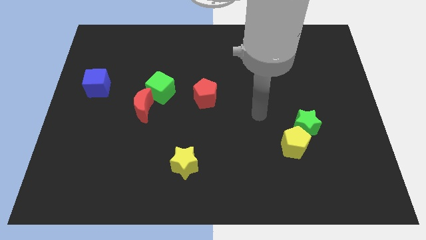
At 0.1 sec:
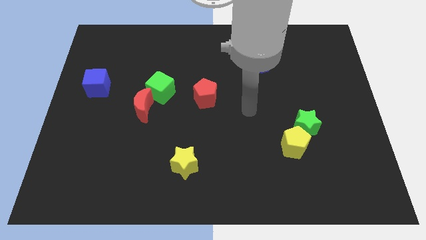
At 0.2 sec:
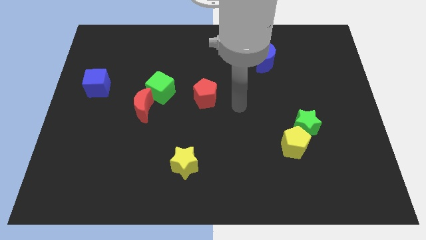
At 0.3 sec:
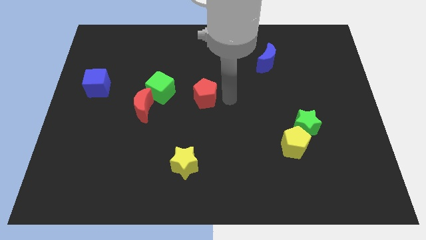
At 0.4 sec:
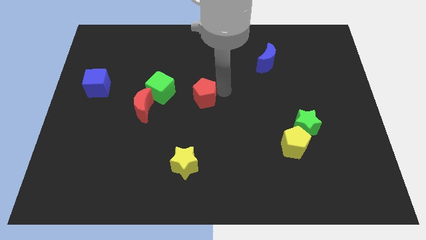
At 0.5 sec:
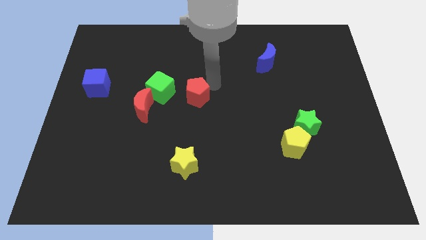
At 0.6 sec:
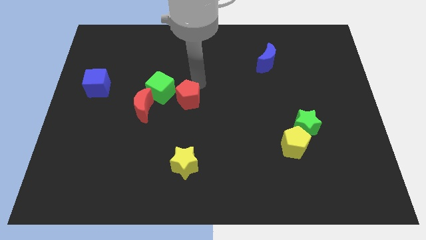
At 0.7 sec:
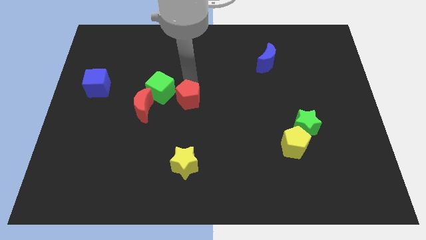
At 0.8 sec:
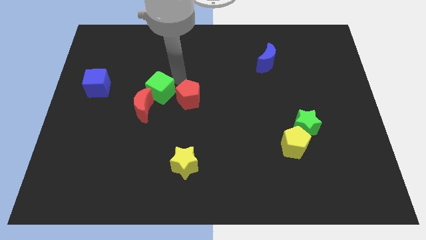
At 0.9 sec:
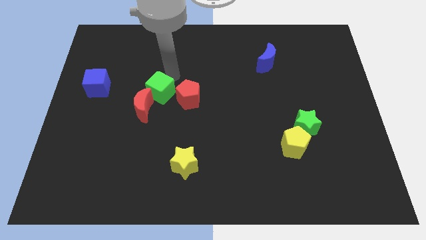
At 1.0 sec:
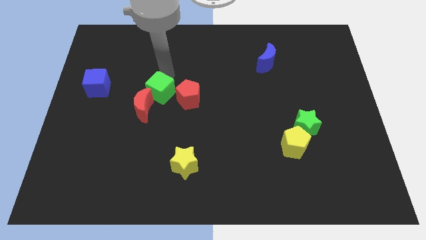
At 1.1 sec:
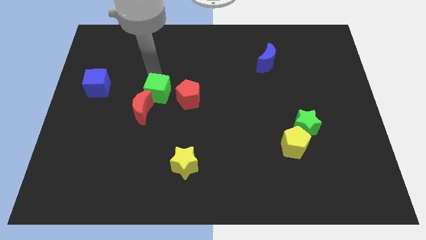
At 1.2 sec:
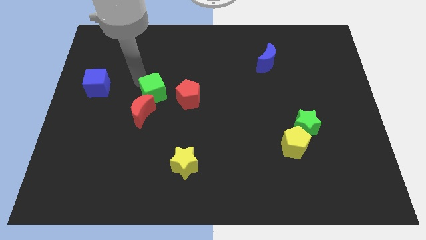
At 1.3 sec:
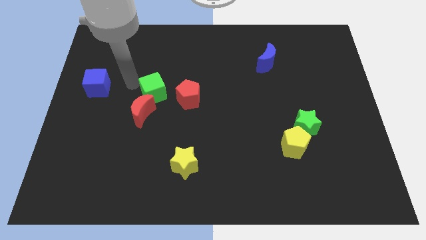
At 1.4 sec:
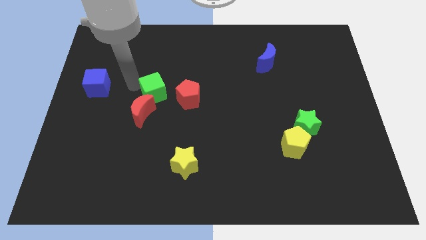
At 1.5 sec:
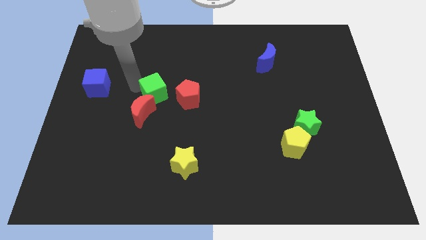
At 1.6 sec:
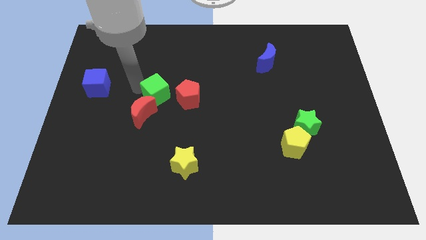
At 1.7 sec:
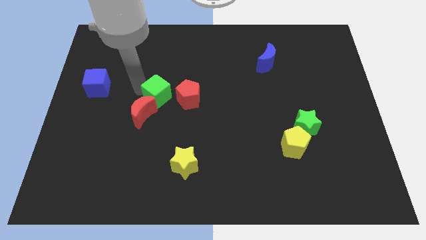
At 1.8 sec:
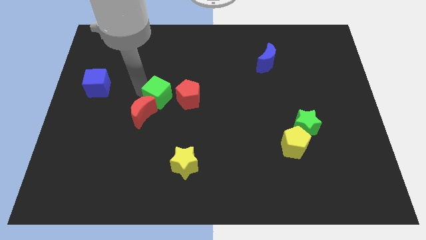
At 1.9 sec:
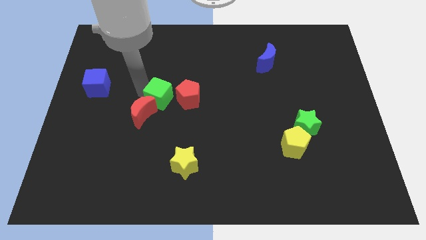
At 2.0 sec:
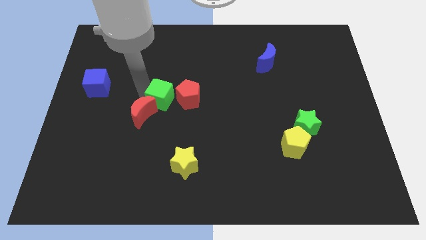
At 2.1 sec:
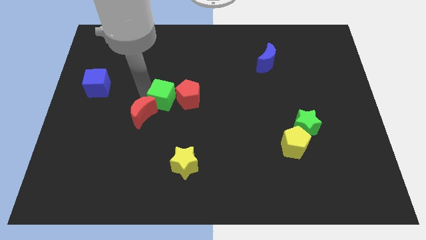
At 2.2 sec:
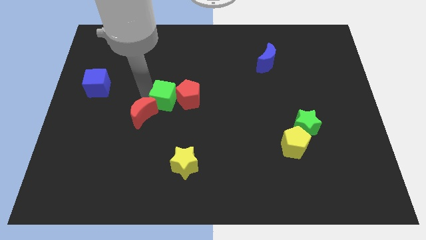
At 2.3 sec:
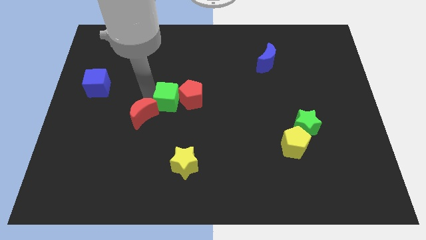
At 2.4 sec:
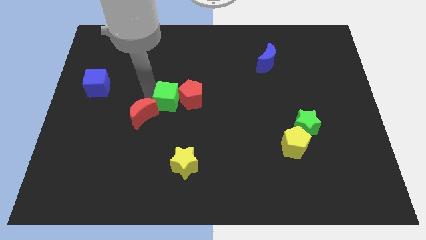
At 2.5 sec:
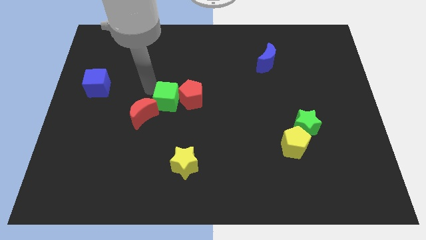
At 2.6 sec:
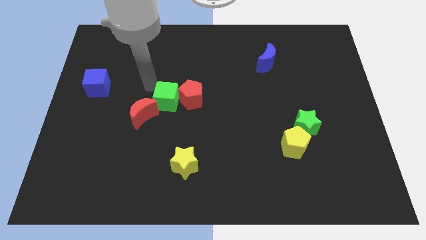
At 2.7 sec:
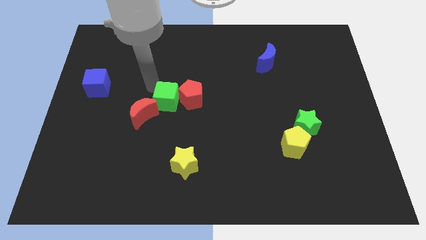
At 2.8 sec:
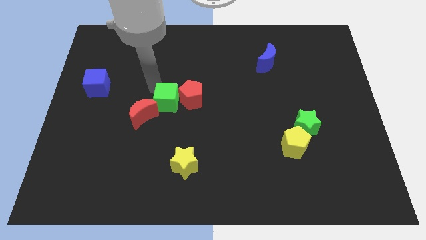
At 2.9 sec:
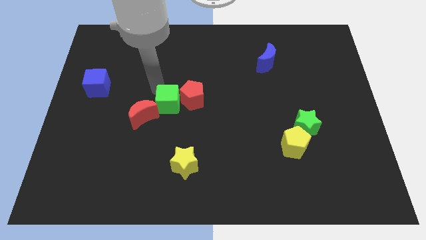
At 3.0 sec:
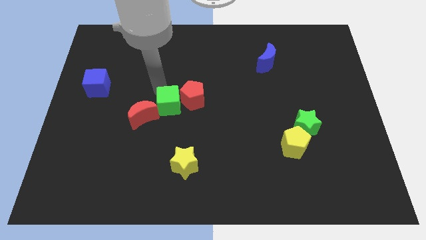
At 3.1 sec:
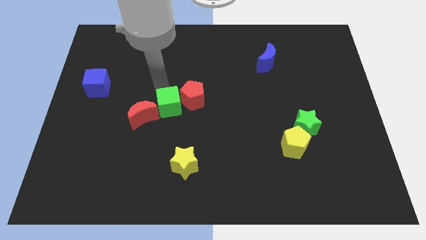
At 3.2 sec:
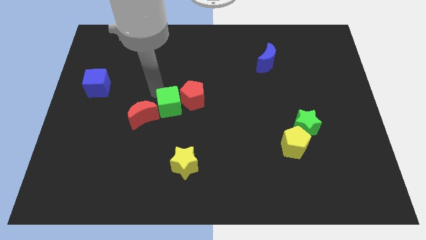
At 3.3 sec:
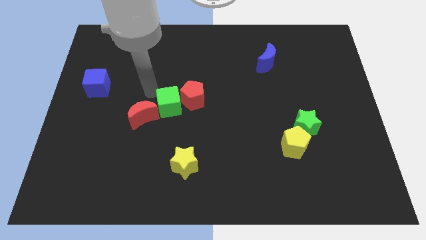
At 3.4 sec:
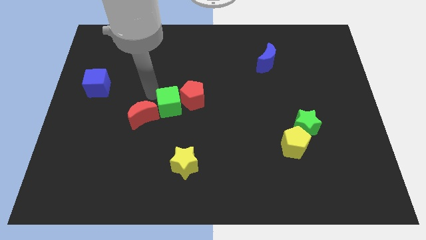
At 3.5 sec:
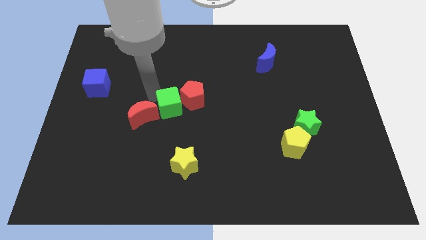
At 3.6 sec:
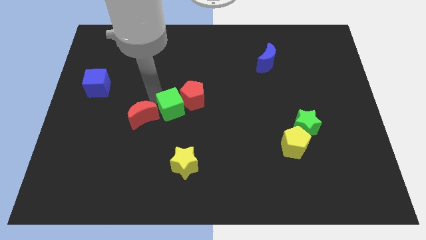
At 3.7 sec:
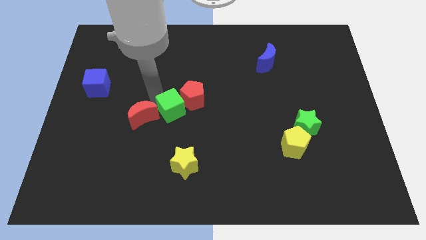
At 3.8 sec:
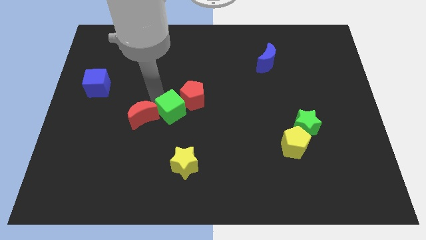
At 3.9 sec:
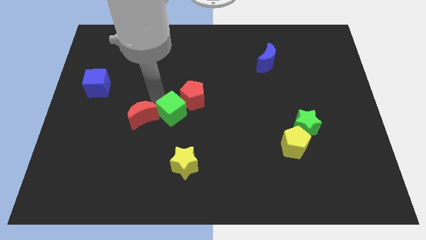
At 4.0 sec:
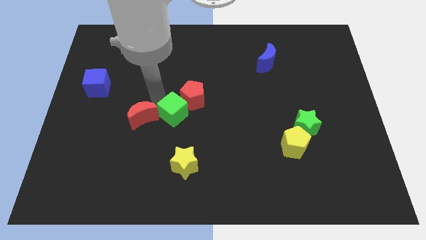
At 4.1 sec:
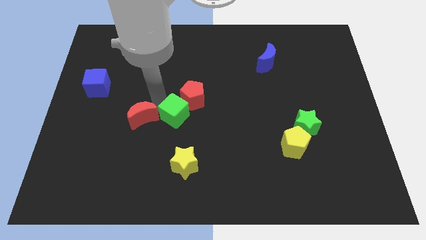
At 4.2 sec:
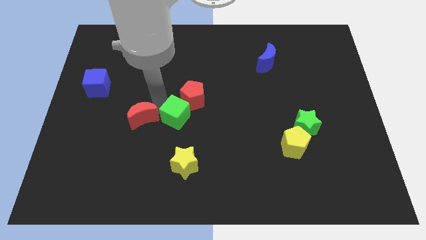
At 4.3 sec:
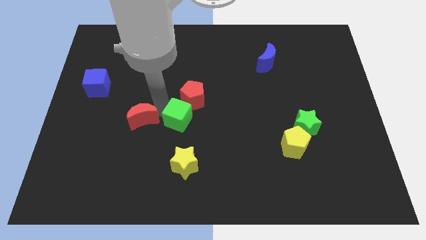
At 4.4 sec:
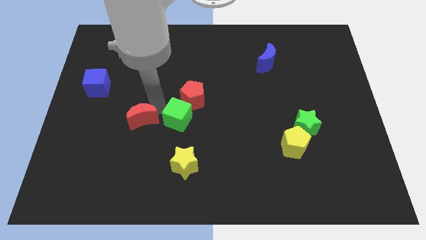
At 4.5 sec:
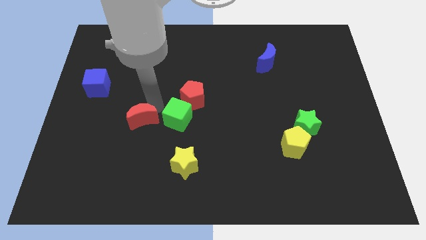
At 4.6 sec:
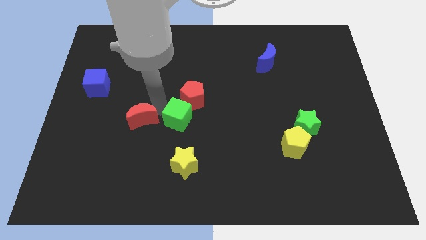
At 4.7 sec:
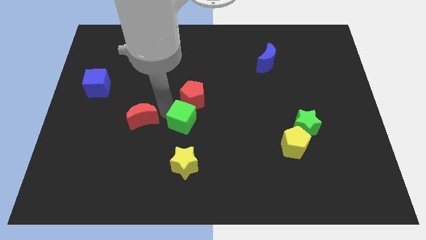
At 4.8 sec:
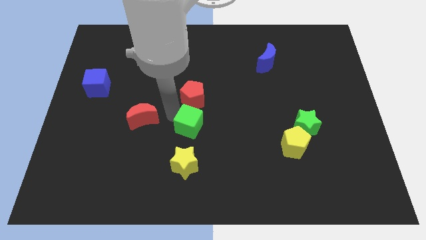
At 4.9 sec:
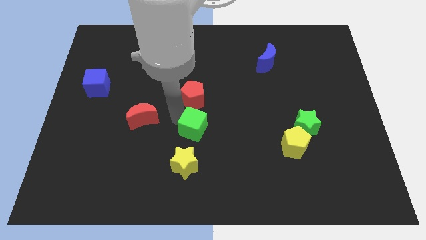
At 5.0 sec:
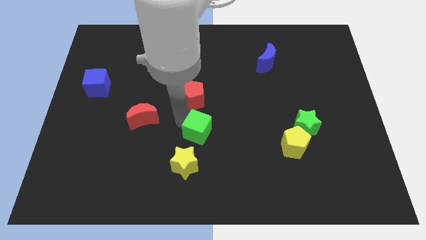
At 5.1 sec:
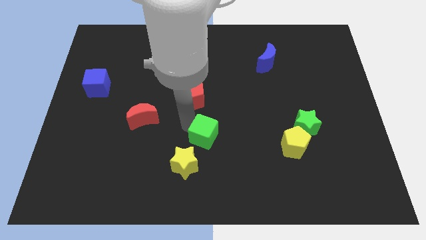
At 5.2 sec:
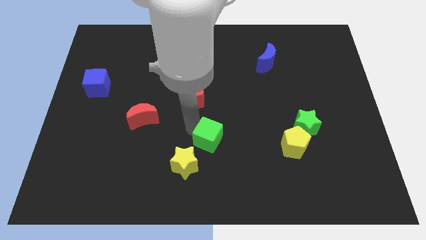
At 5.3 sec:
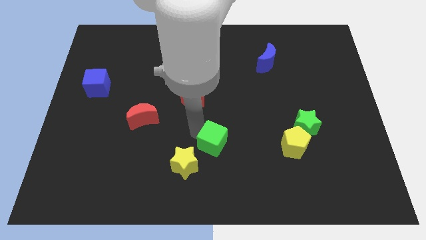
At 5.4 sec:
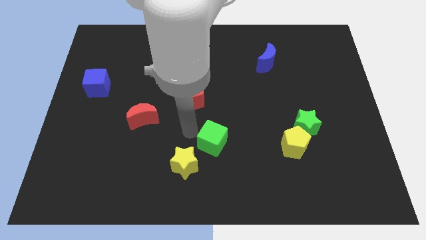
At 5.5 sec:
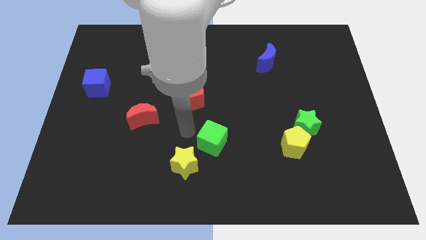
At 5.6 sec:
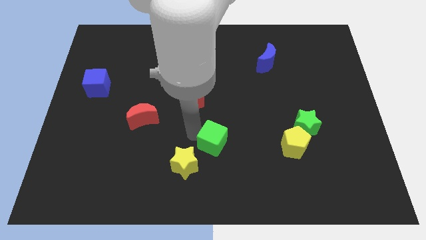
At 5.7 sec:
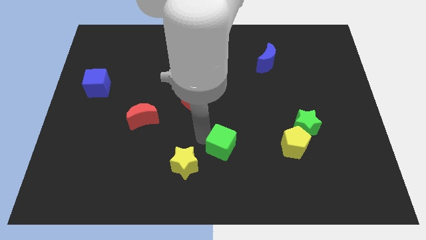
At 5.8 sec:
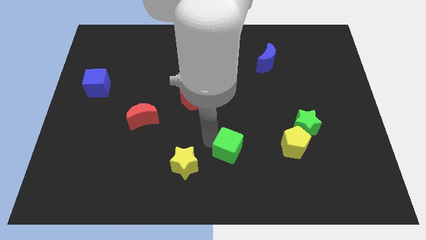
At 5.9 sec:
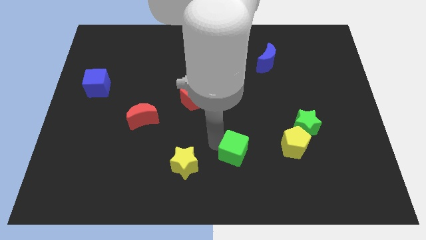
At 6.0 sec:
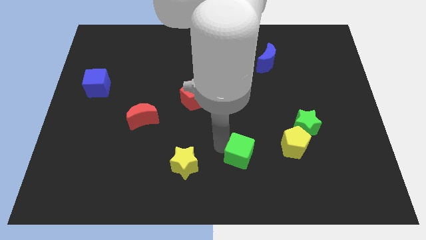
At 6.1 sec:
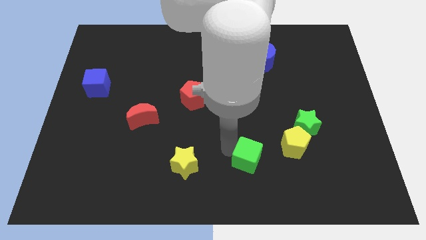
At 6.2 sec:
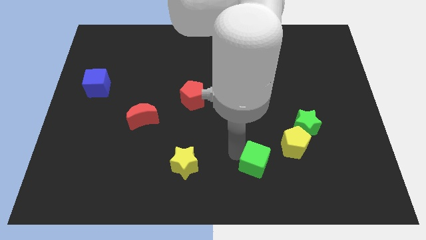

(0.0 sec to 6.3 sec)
slide the green cube to the bottom left side of the yellow pentagon

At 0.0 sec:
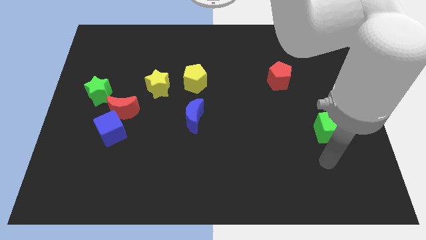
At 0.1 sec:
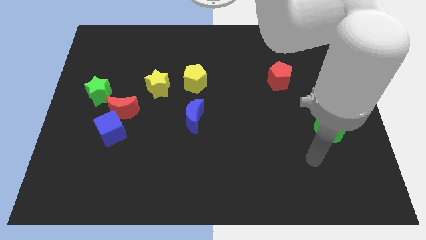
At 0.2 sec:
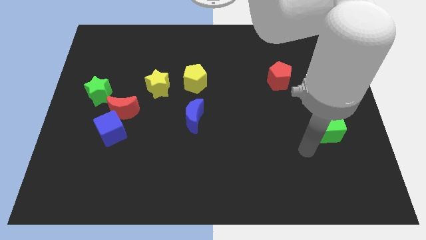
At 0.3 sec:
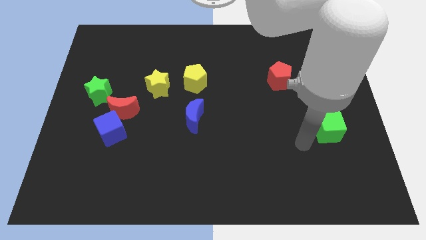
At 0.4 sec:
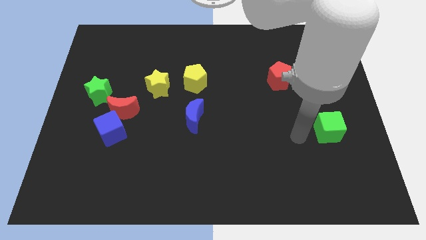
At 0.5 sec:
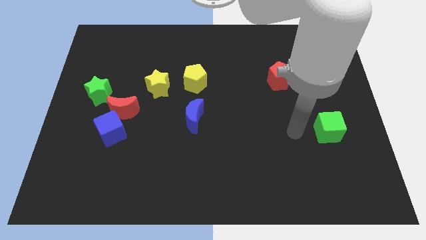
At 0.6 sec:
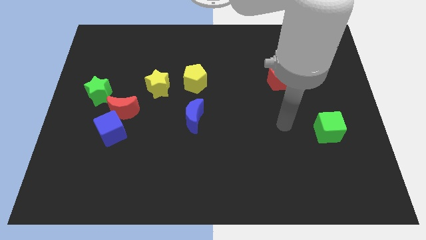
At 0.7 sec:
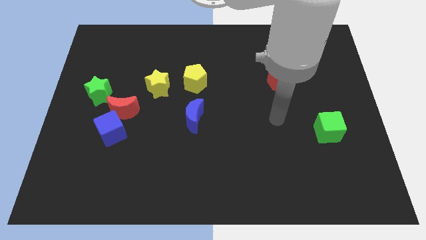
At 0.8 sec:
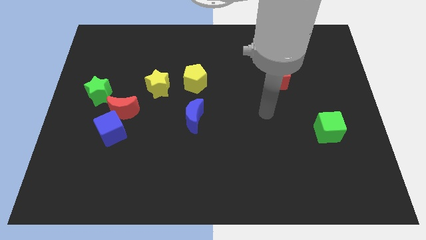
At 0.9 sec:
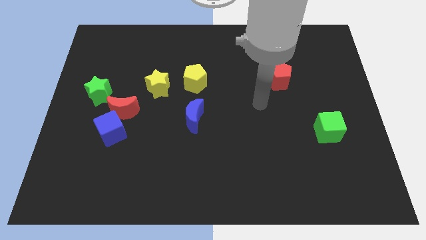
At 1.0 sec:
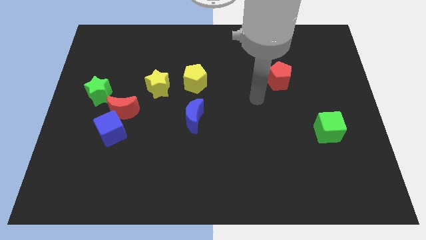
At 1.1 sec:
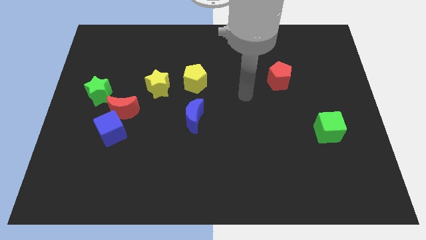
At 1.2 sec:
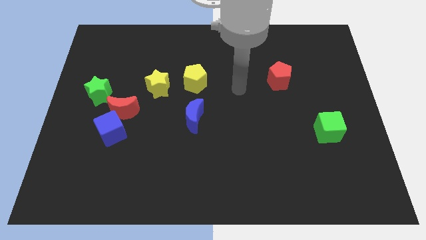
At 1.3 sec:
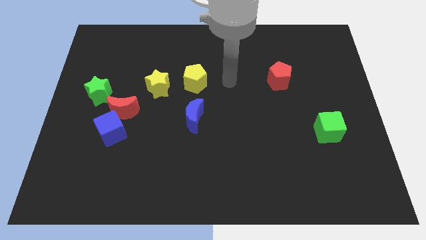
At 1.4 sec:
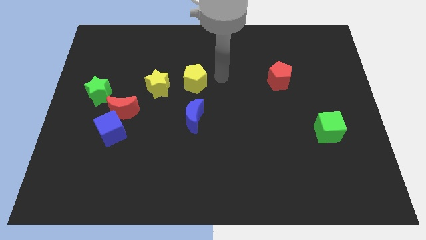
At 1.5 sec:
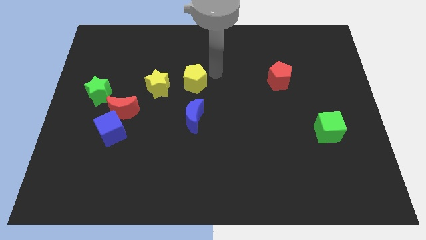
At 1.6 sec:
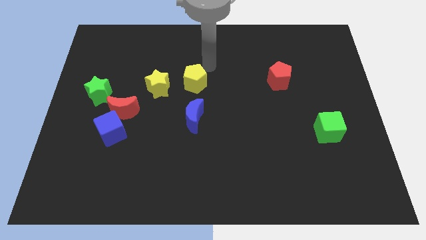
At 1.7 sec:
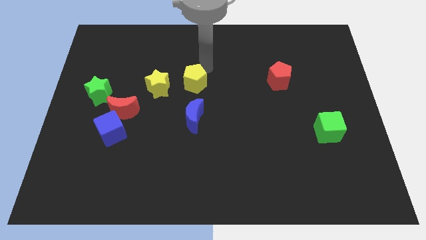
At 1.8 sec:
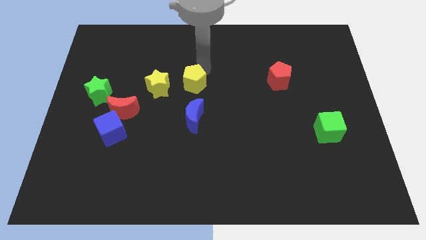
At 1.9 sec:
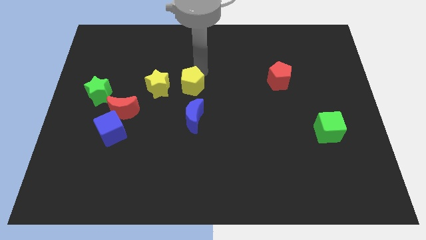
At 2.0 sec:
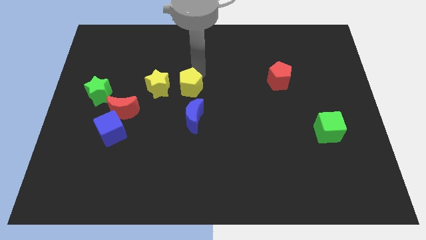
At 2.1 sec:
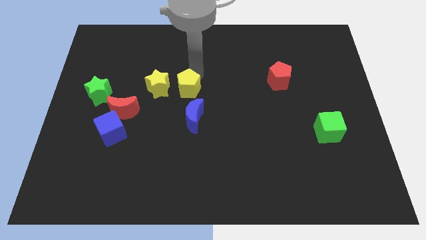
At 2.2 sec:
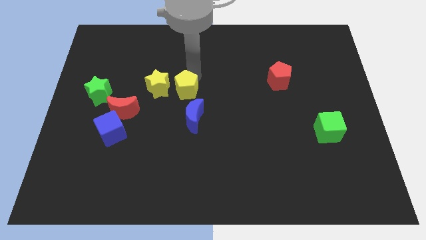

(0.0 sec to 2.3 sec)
move the yellow pentagon to the bottom right of the yellow star
